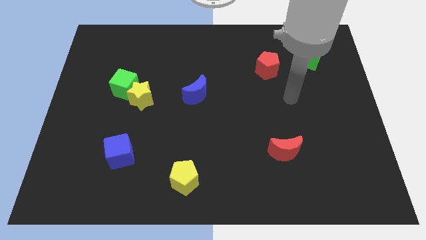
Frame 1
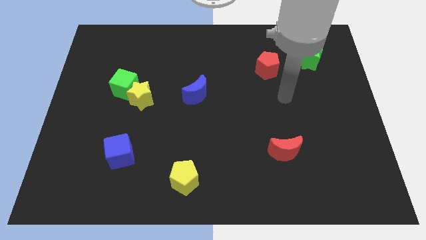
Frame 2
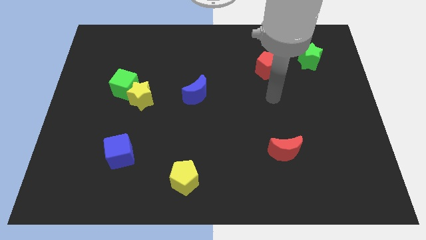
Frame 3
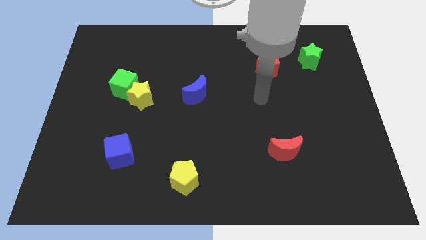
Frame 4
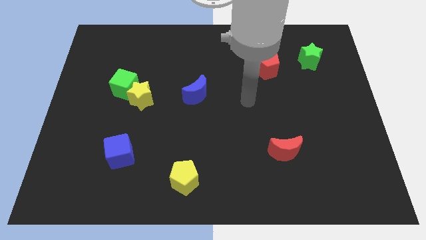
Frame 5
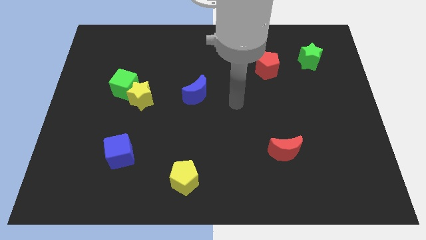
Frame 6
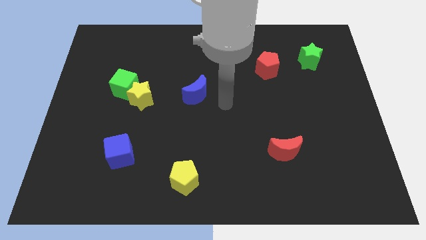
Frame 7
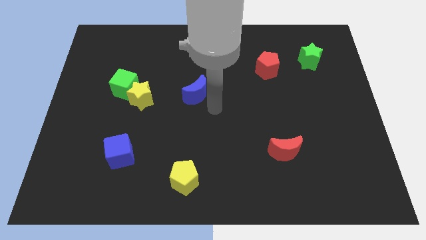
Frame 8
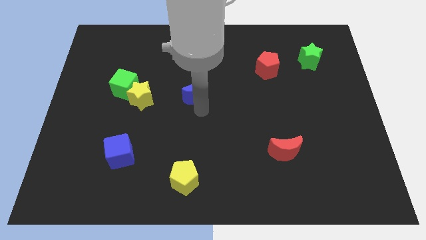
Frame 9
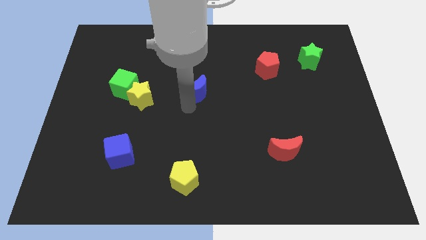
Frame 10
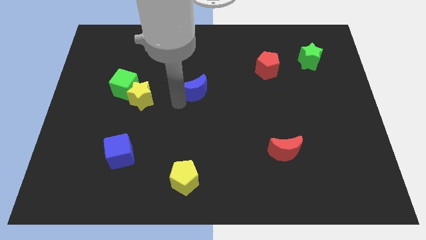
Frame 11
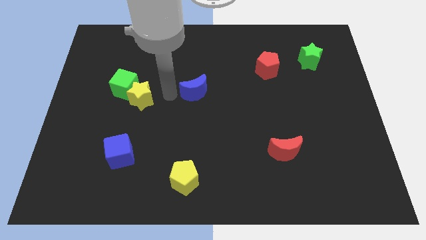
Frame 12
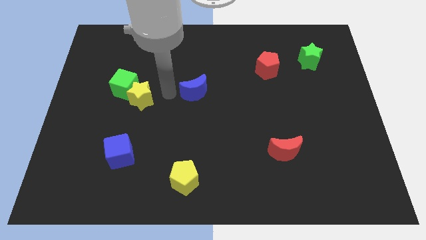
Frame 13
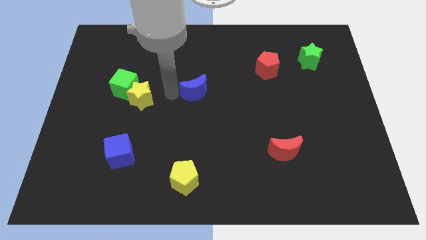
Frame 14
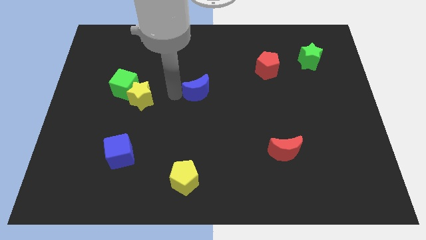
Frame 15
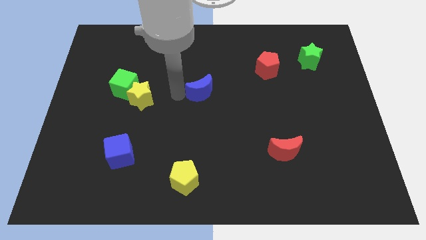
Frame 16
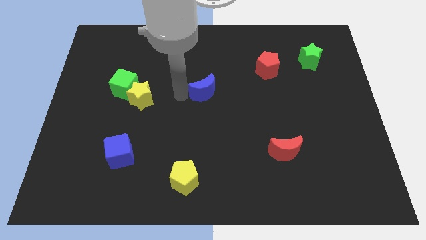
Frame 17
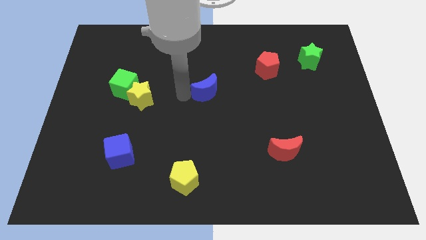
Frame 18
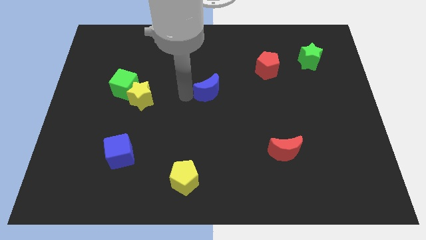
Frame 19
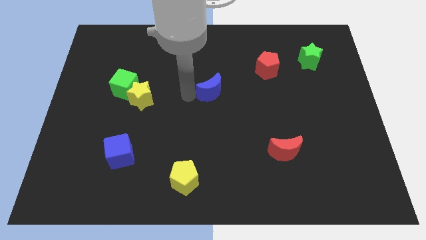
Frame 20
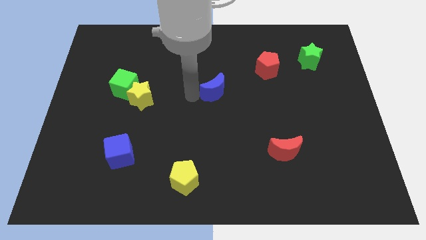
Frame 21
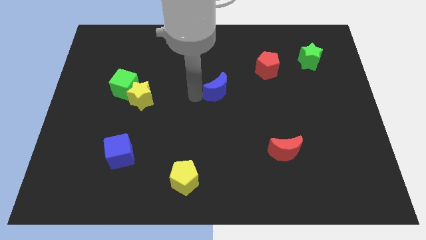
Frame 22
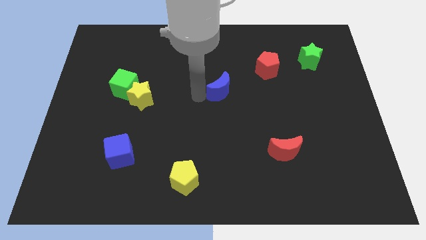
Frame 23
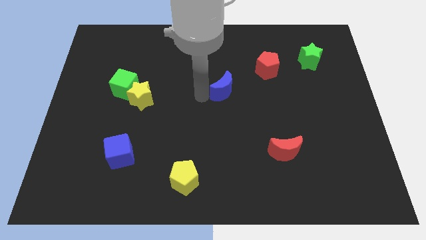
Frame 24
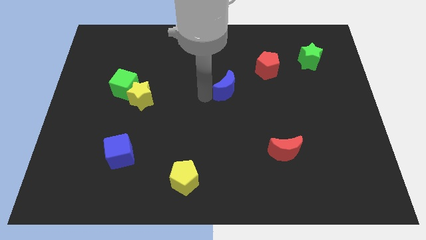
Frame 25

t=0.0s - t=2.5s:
push the blue moon to the right a bit

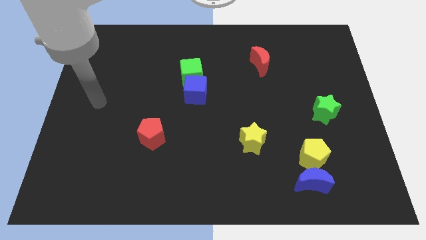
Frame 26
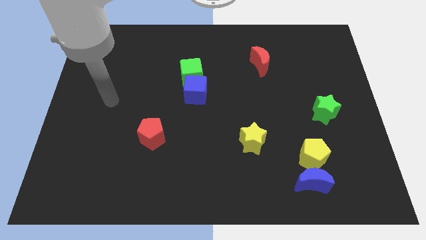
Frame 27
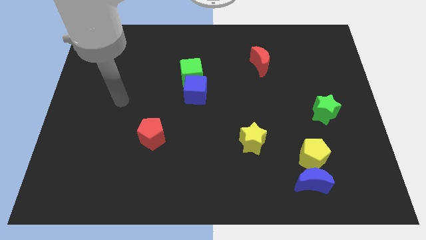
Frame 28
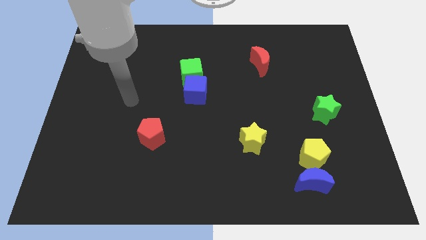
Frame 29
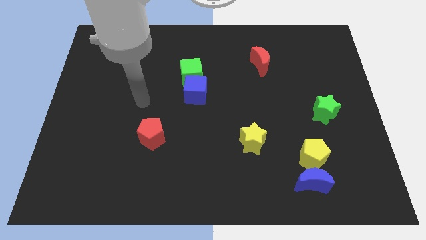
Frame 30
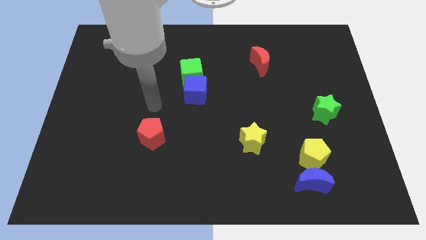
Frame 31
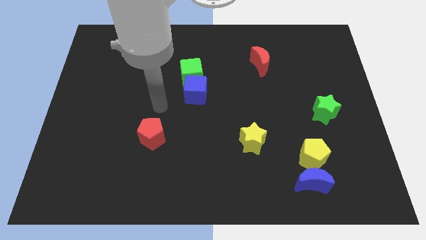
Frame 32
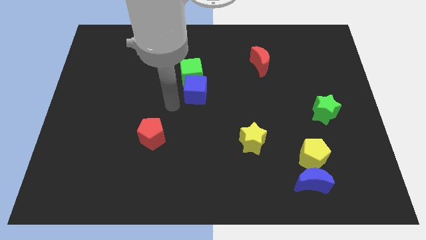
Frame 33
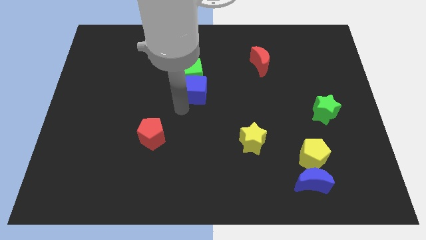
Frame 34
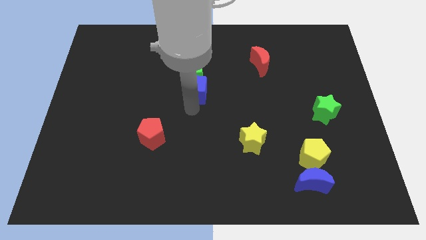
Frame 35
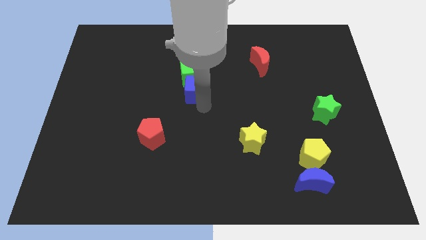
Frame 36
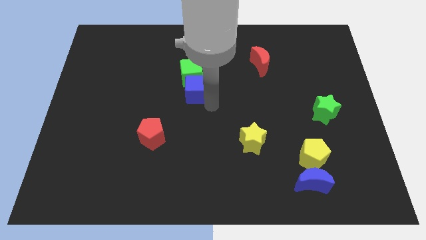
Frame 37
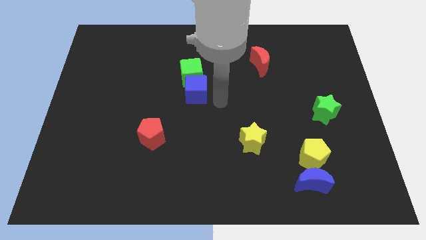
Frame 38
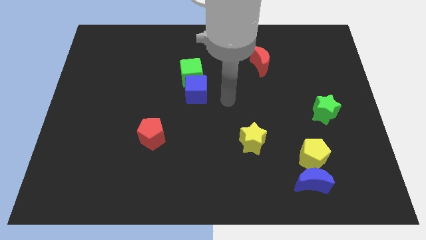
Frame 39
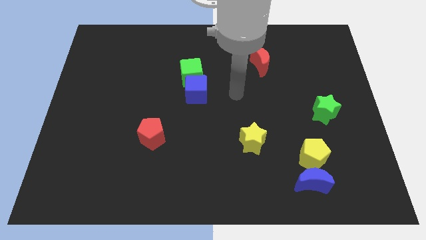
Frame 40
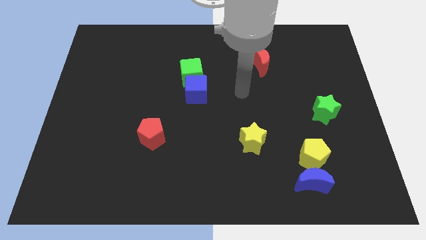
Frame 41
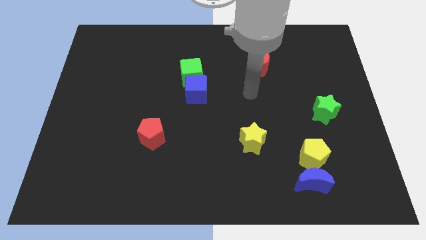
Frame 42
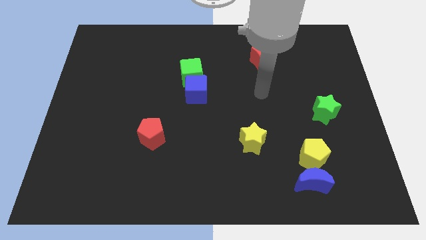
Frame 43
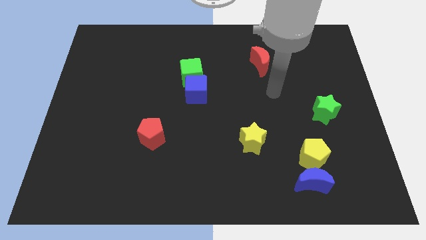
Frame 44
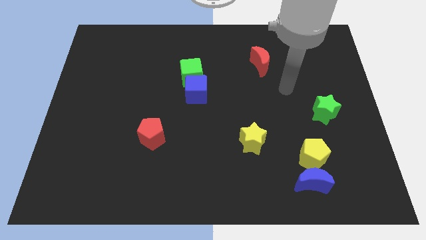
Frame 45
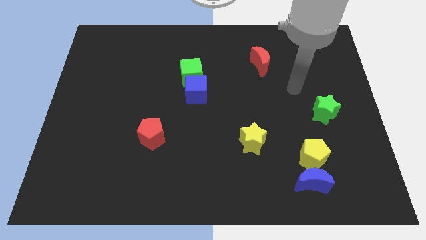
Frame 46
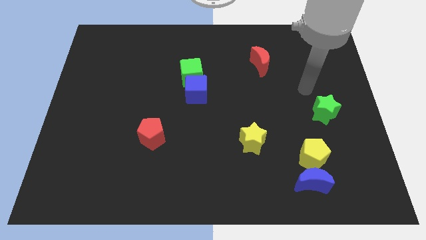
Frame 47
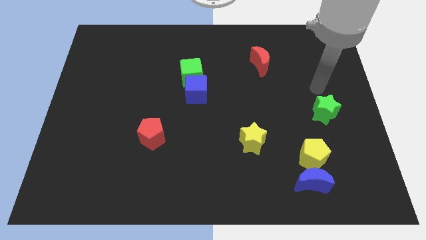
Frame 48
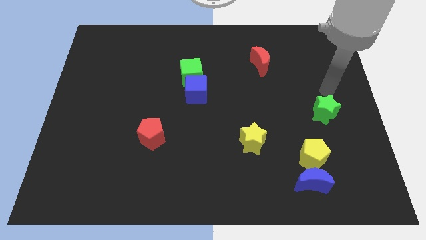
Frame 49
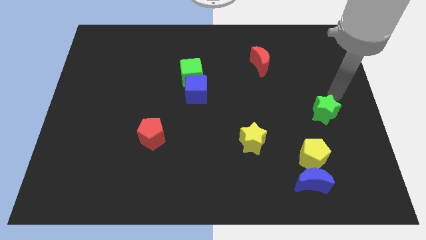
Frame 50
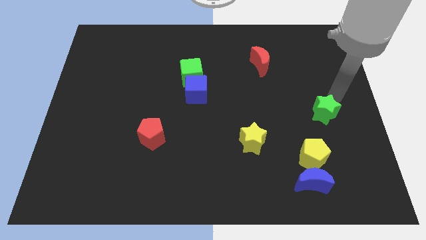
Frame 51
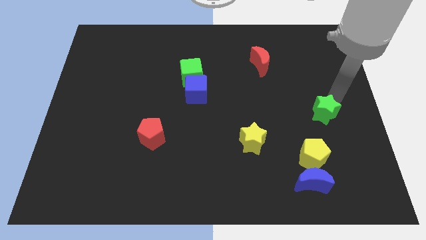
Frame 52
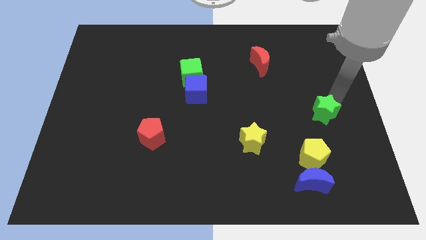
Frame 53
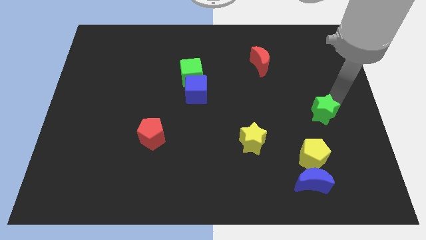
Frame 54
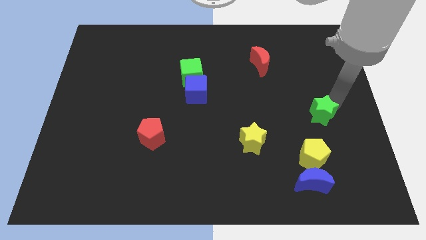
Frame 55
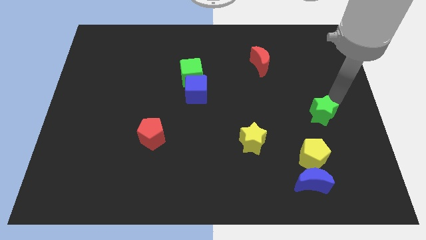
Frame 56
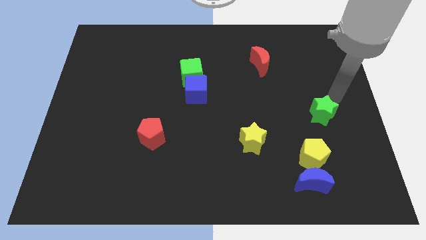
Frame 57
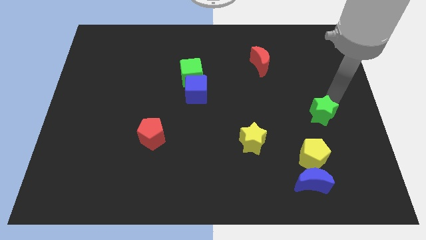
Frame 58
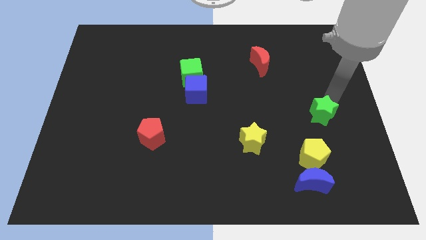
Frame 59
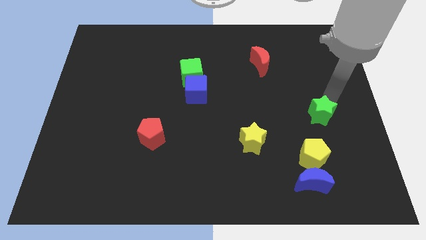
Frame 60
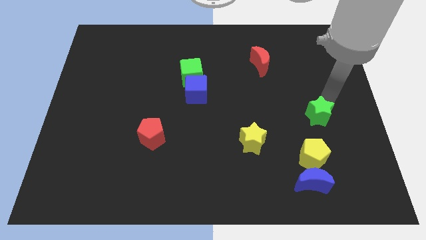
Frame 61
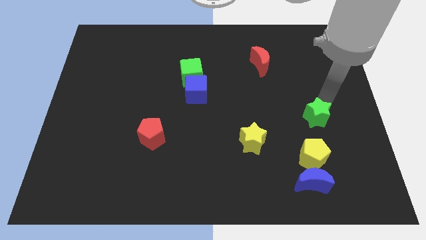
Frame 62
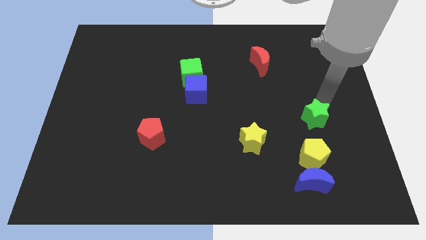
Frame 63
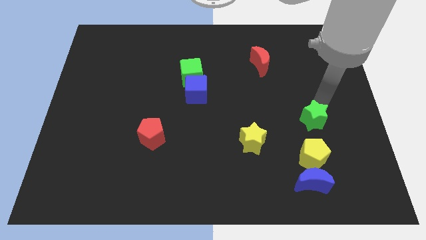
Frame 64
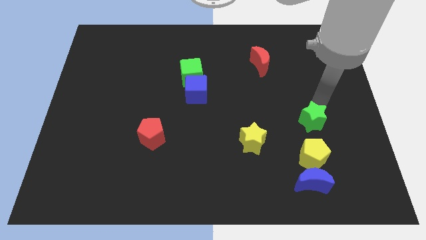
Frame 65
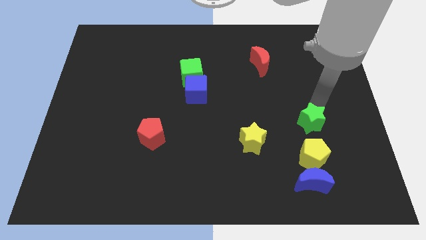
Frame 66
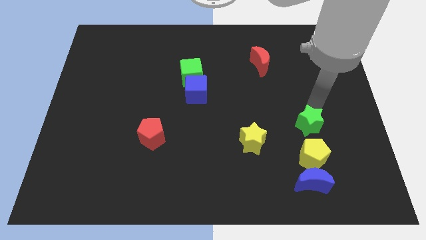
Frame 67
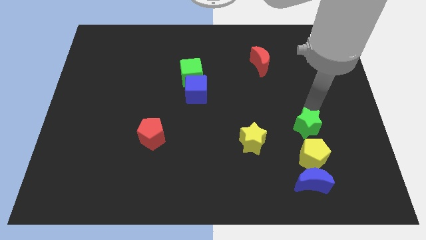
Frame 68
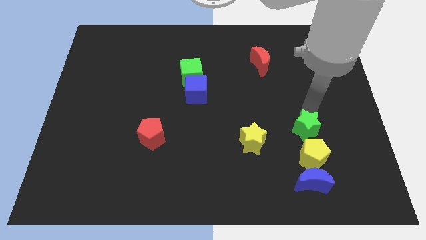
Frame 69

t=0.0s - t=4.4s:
slide the green star a bit down and to the left

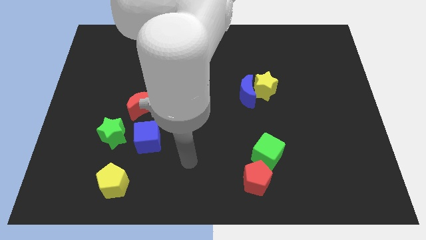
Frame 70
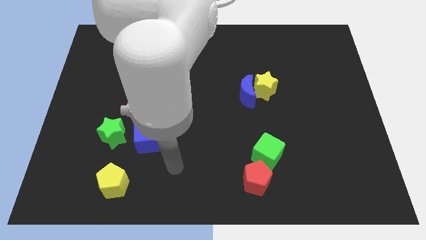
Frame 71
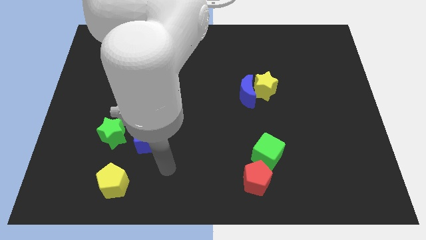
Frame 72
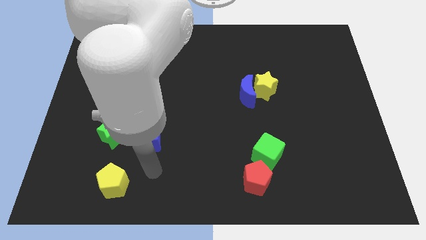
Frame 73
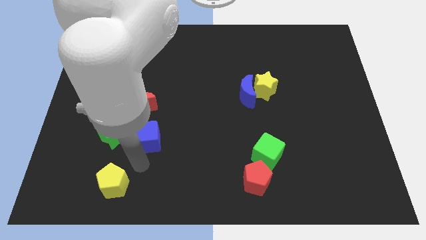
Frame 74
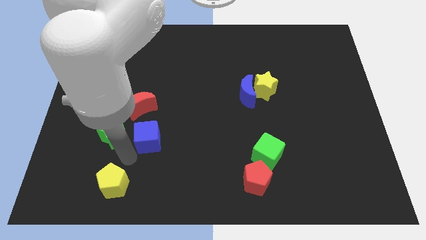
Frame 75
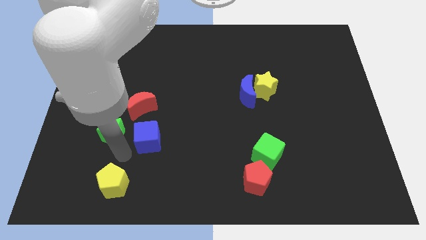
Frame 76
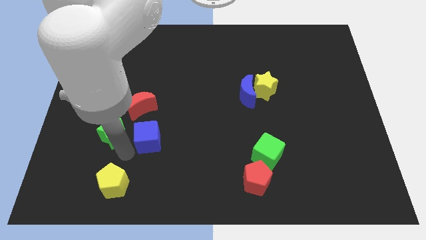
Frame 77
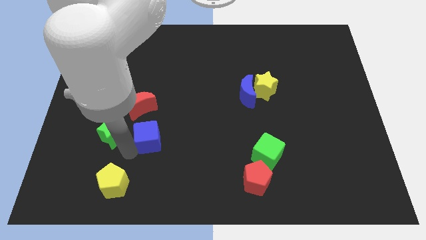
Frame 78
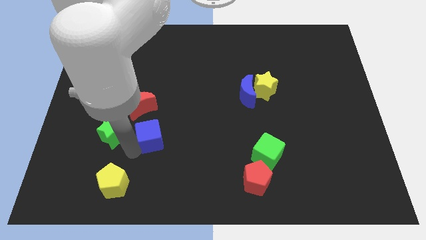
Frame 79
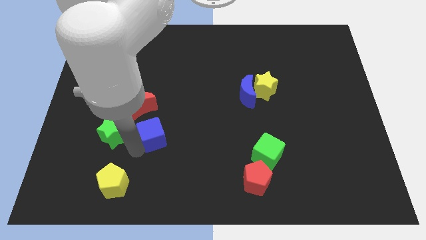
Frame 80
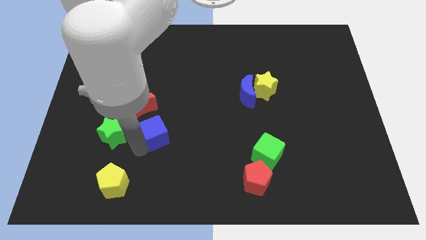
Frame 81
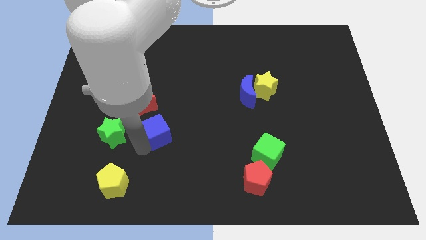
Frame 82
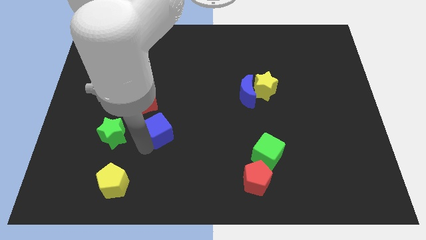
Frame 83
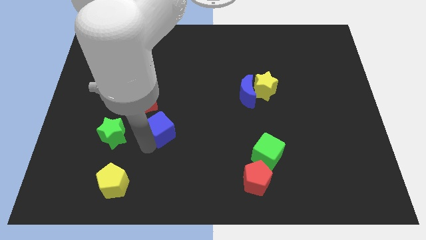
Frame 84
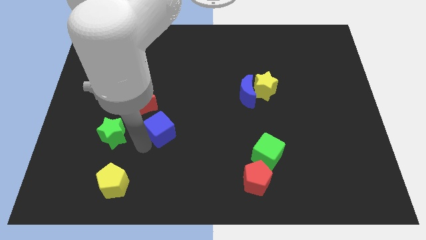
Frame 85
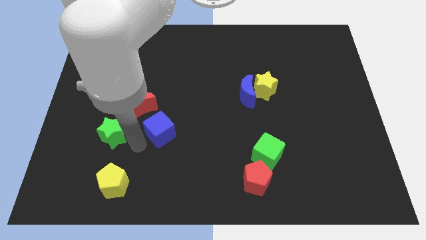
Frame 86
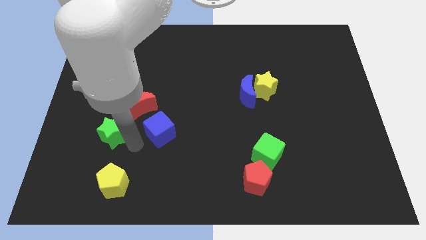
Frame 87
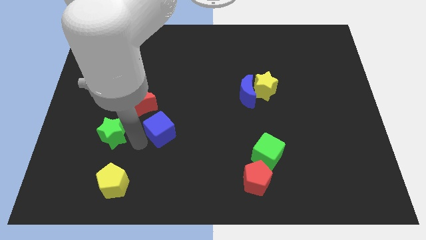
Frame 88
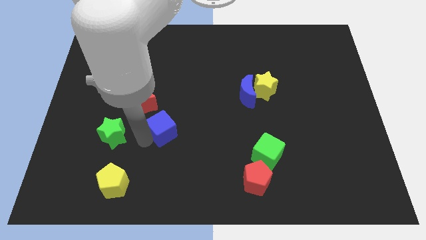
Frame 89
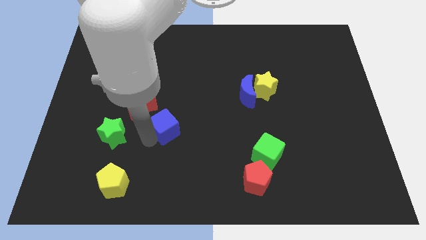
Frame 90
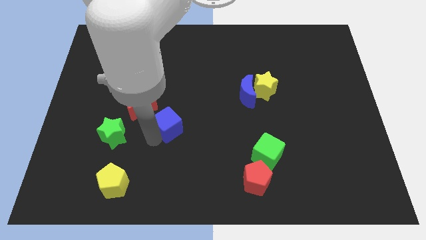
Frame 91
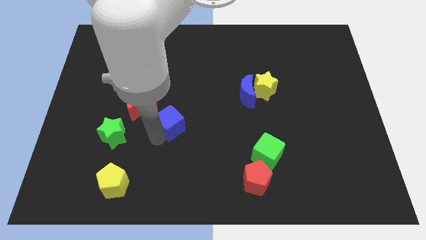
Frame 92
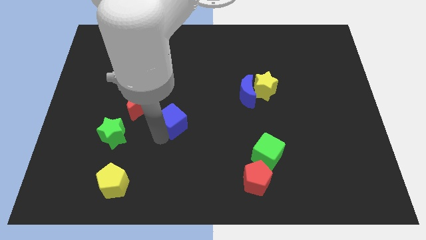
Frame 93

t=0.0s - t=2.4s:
slide the blue cube somewhat diagonally up and right
